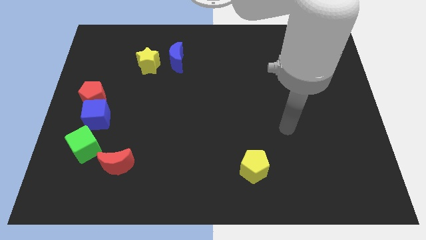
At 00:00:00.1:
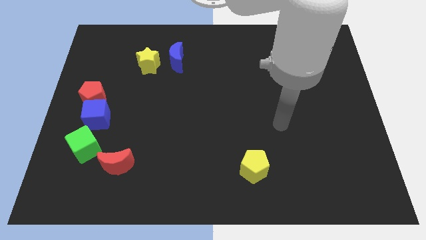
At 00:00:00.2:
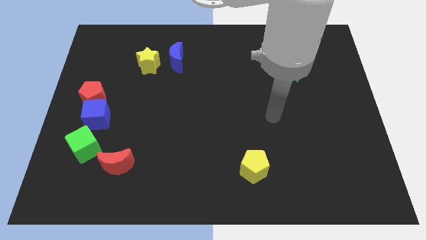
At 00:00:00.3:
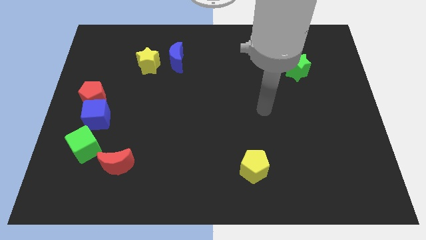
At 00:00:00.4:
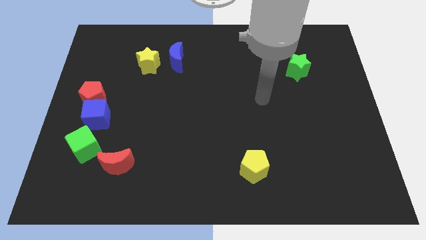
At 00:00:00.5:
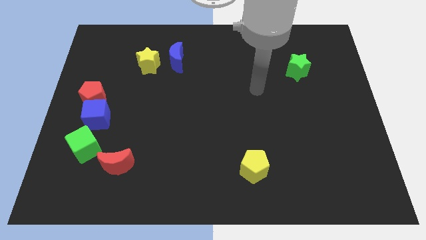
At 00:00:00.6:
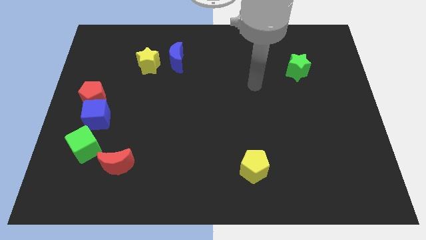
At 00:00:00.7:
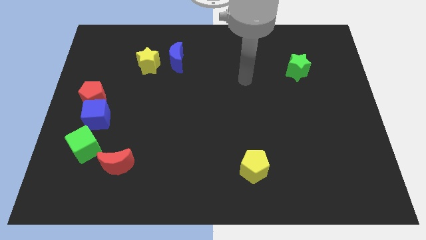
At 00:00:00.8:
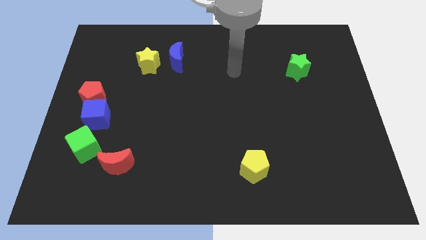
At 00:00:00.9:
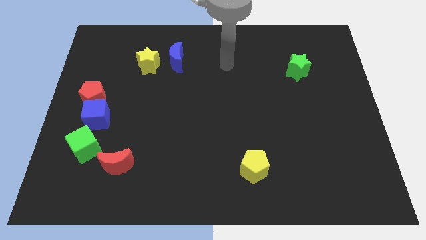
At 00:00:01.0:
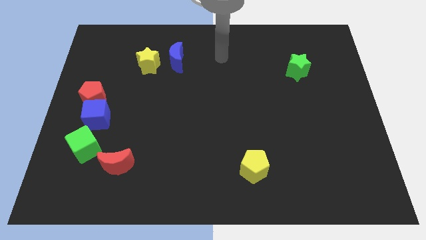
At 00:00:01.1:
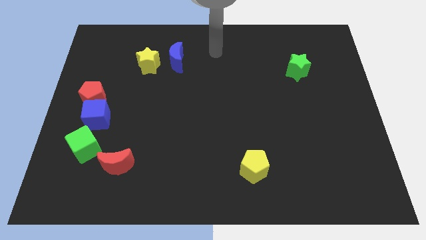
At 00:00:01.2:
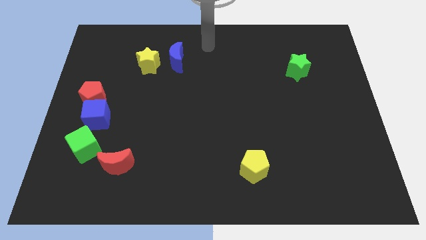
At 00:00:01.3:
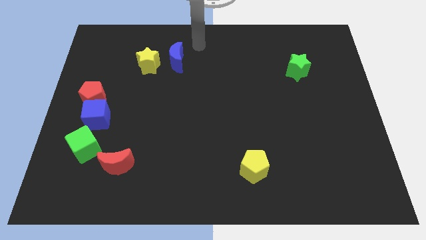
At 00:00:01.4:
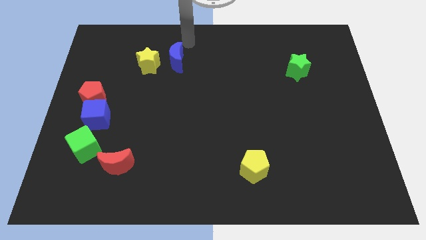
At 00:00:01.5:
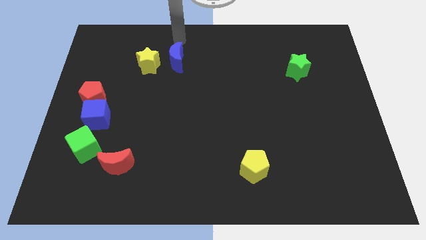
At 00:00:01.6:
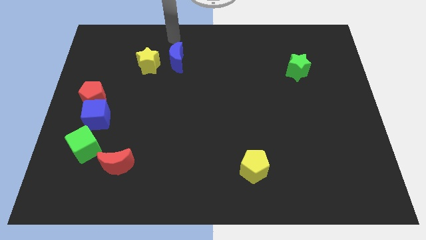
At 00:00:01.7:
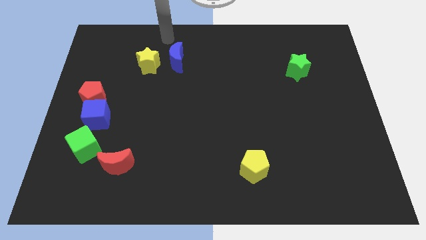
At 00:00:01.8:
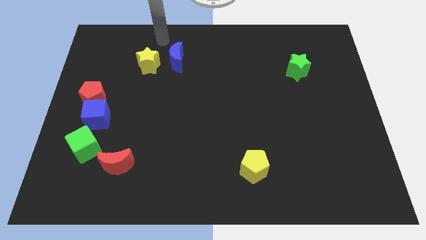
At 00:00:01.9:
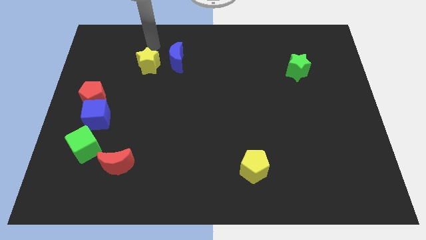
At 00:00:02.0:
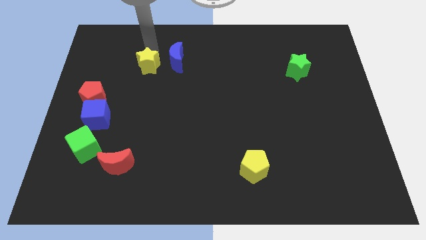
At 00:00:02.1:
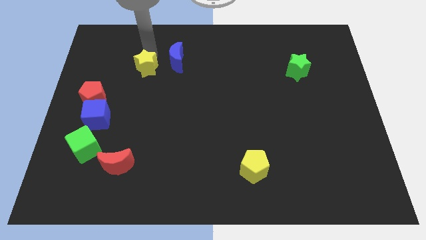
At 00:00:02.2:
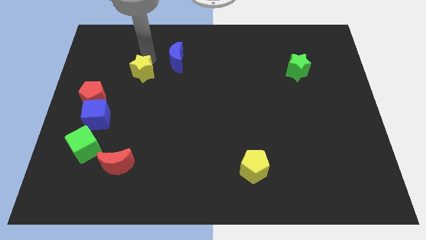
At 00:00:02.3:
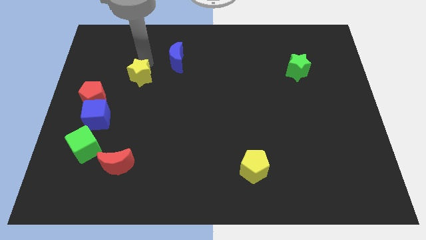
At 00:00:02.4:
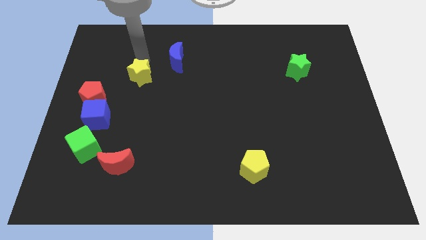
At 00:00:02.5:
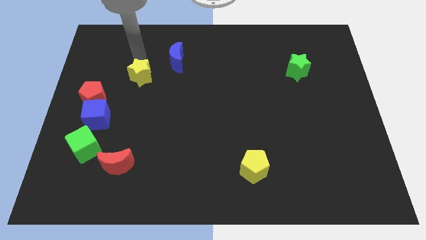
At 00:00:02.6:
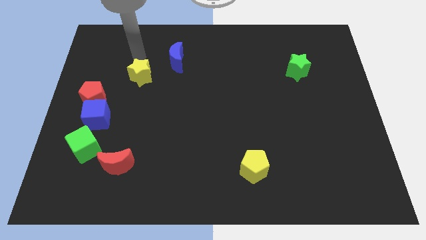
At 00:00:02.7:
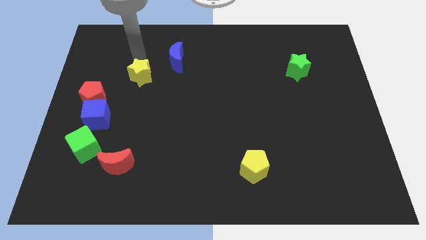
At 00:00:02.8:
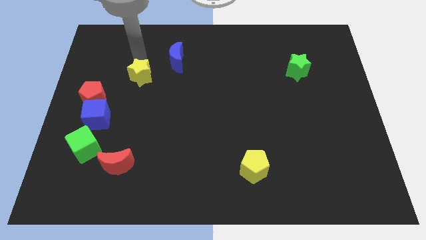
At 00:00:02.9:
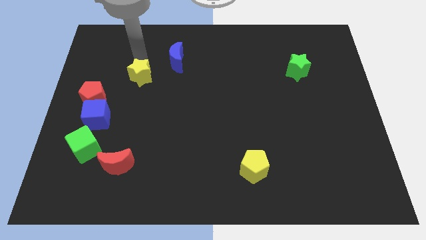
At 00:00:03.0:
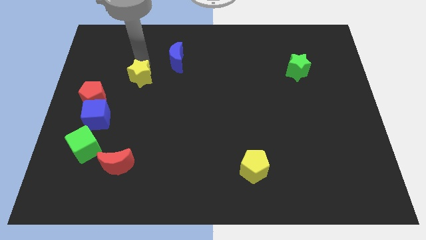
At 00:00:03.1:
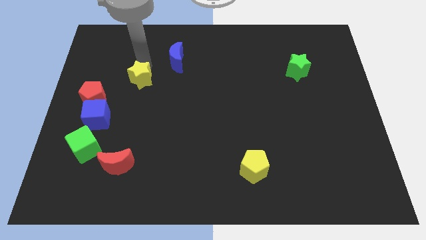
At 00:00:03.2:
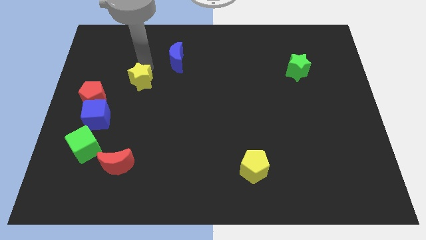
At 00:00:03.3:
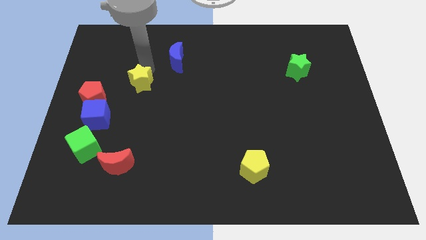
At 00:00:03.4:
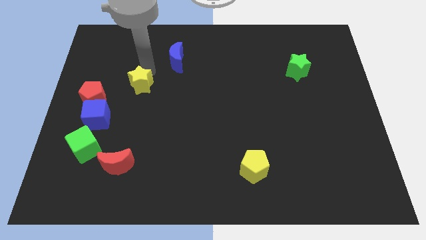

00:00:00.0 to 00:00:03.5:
move the yellow star a bit downwards

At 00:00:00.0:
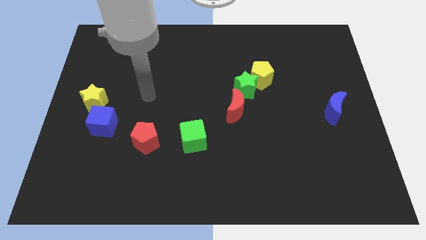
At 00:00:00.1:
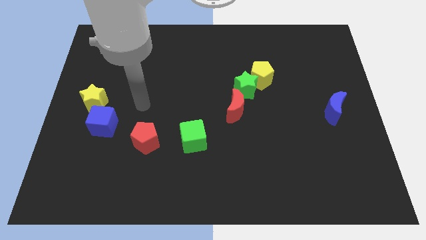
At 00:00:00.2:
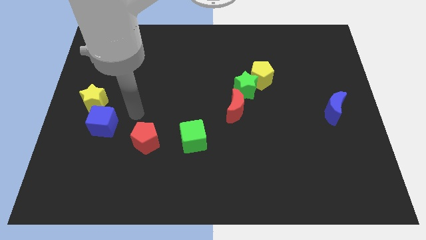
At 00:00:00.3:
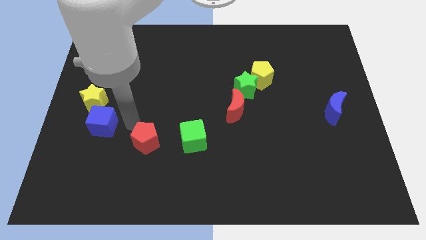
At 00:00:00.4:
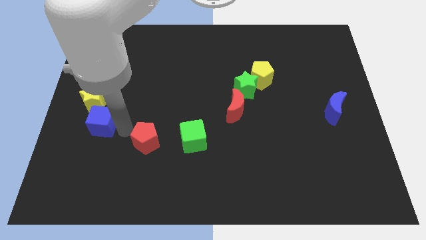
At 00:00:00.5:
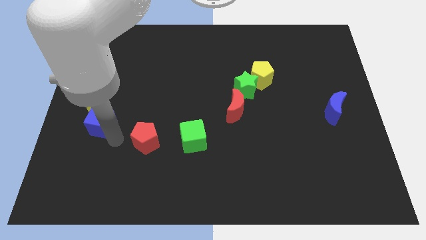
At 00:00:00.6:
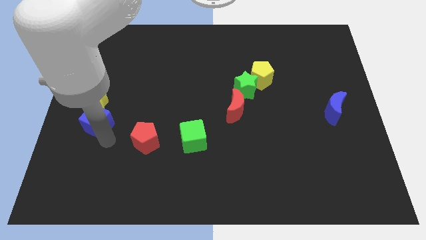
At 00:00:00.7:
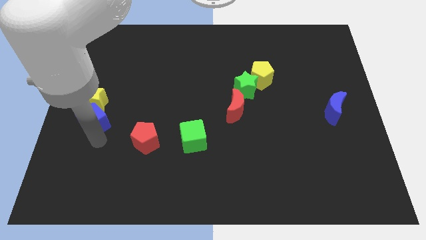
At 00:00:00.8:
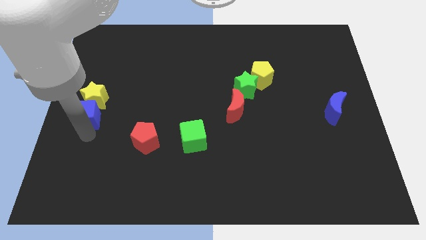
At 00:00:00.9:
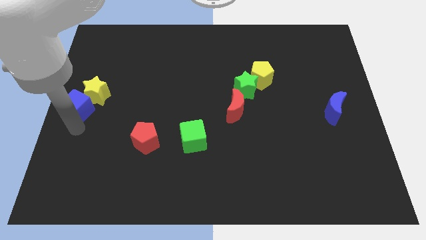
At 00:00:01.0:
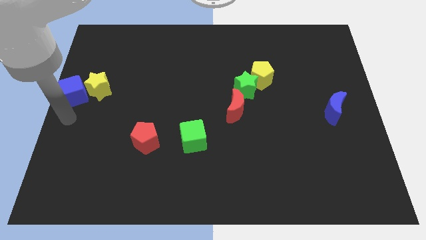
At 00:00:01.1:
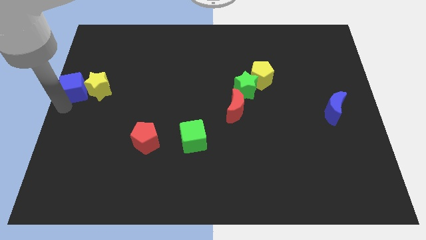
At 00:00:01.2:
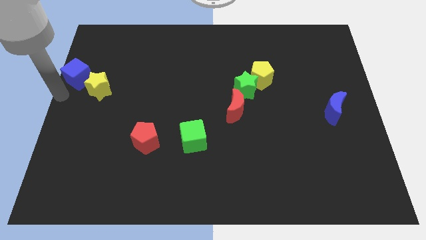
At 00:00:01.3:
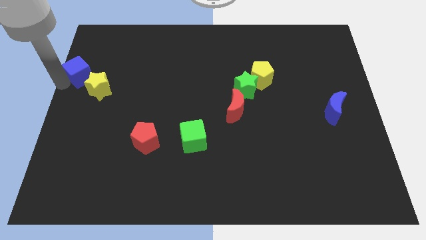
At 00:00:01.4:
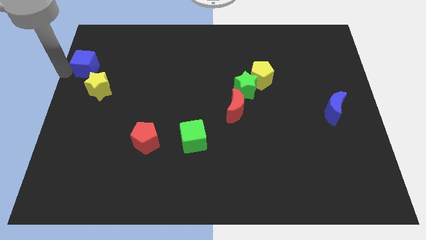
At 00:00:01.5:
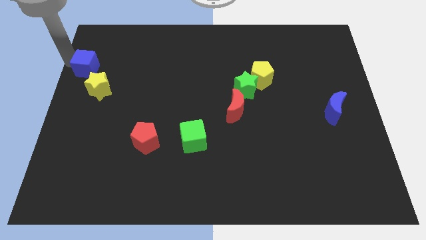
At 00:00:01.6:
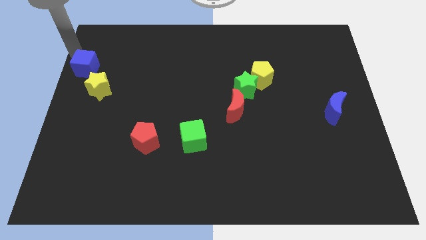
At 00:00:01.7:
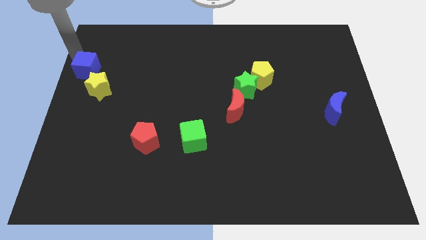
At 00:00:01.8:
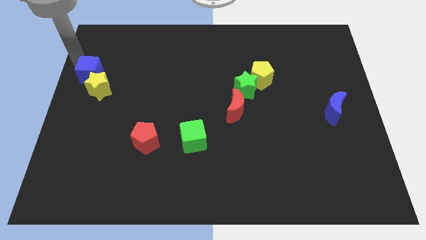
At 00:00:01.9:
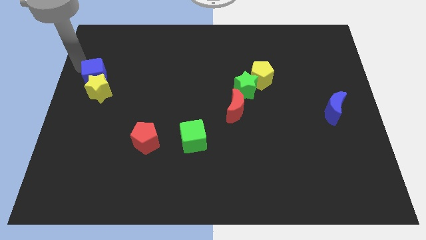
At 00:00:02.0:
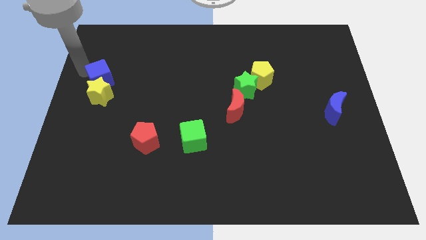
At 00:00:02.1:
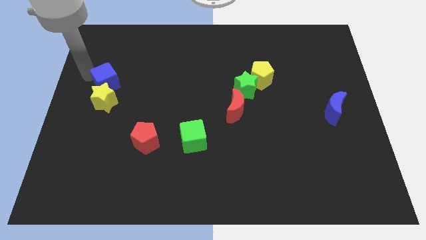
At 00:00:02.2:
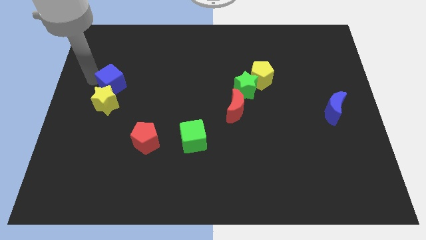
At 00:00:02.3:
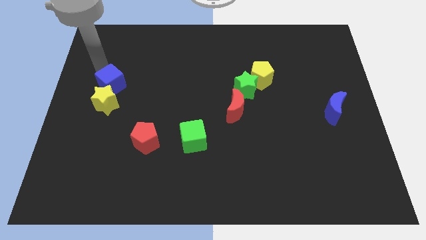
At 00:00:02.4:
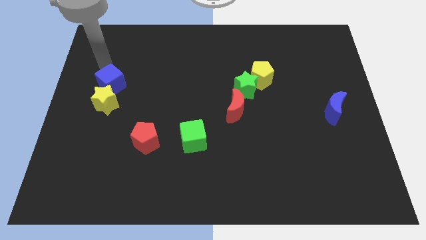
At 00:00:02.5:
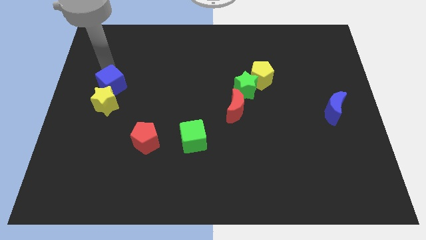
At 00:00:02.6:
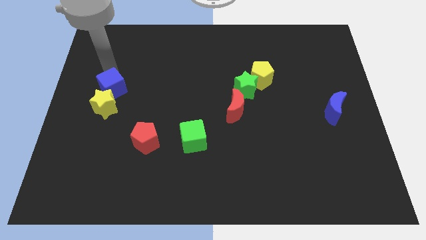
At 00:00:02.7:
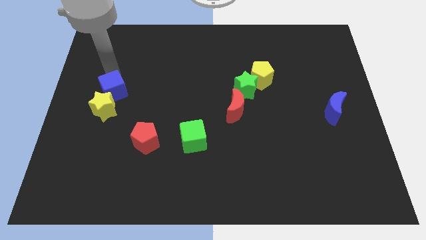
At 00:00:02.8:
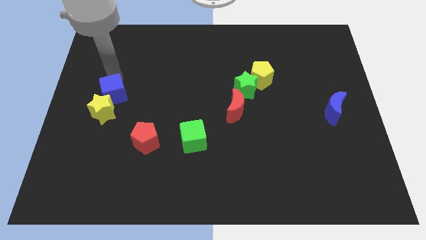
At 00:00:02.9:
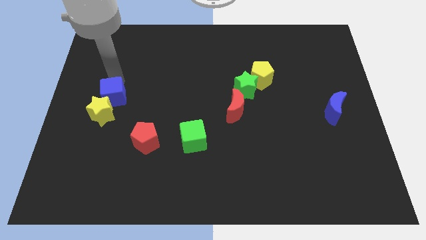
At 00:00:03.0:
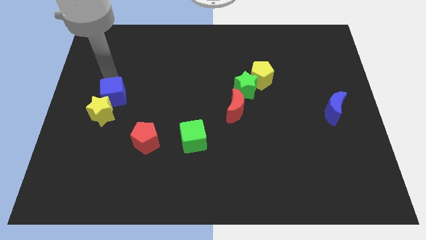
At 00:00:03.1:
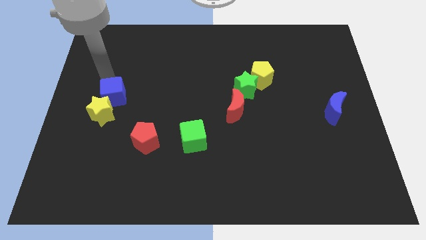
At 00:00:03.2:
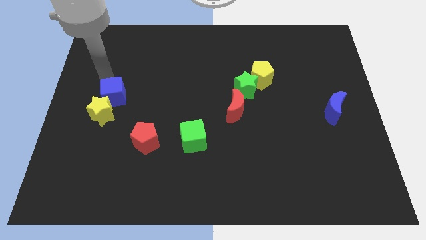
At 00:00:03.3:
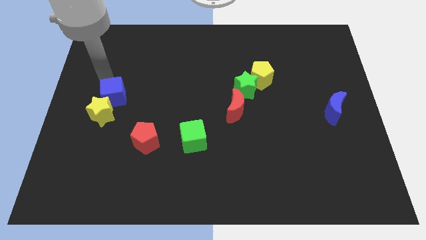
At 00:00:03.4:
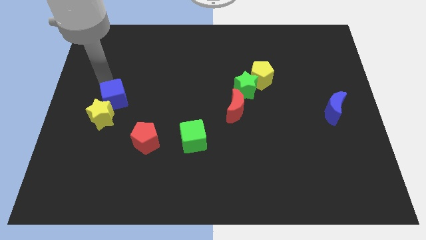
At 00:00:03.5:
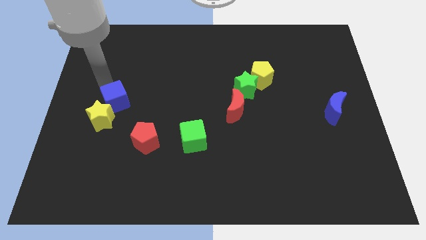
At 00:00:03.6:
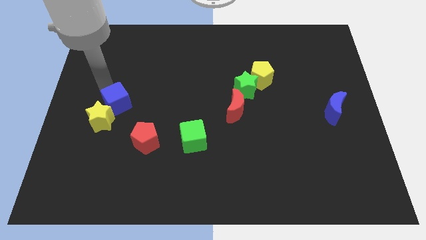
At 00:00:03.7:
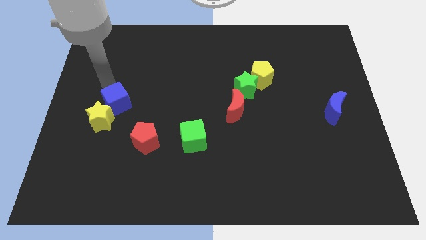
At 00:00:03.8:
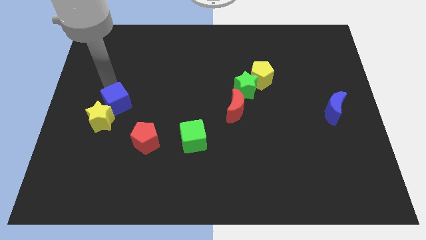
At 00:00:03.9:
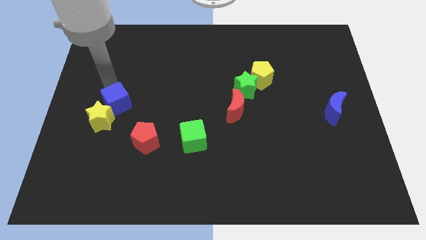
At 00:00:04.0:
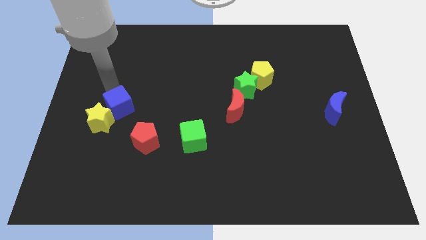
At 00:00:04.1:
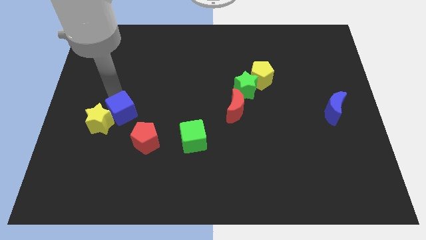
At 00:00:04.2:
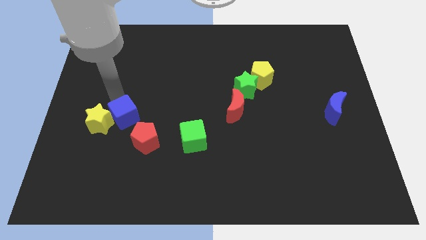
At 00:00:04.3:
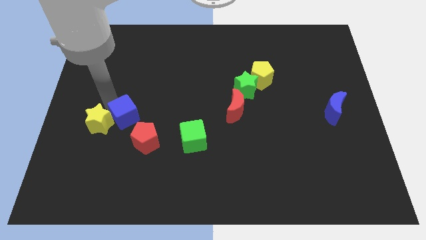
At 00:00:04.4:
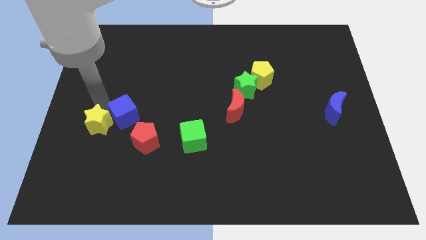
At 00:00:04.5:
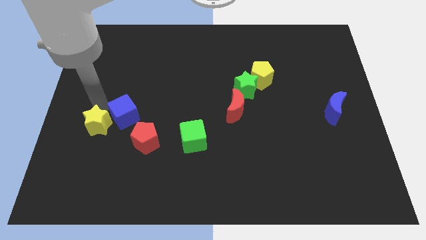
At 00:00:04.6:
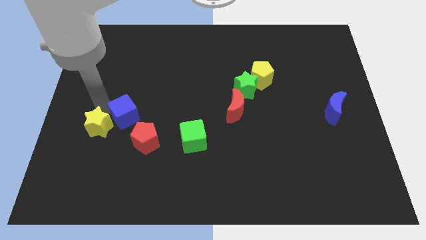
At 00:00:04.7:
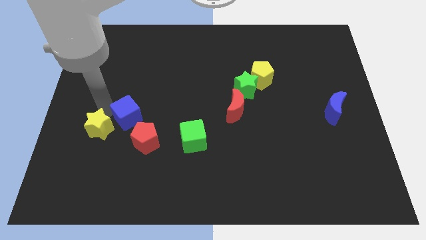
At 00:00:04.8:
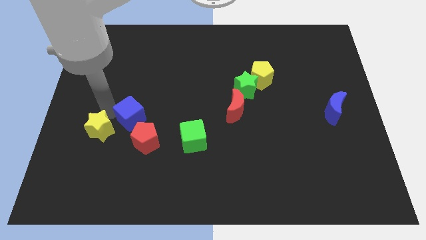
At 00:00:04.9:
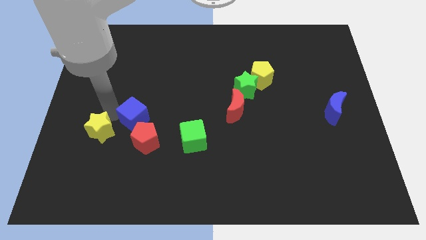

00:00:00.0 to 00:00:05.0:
slide the blue cube right slightly
